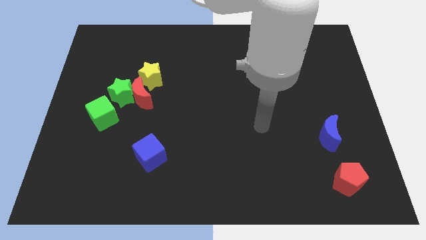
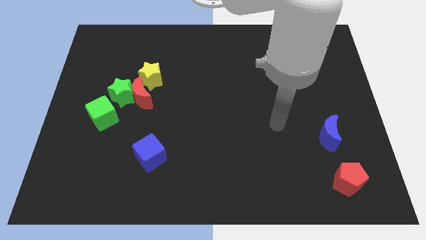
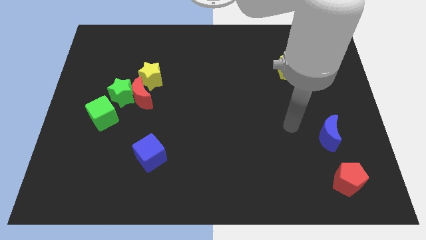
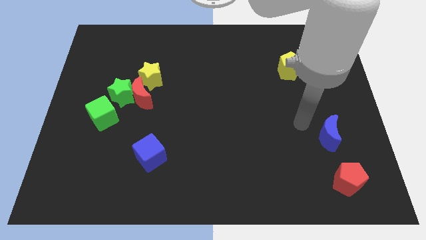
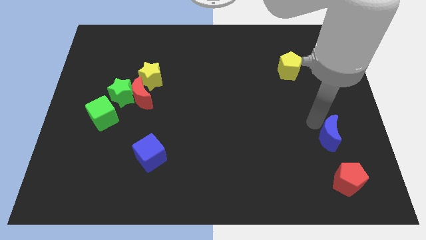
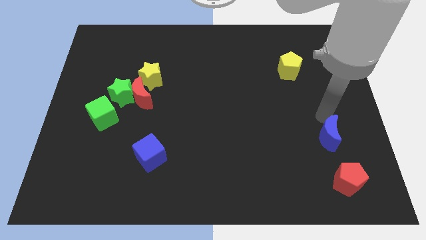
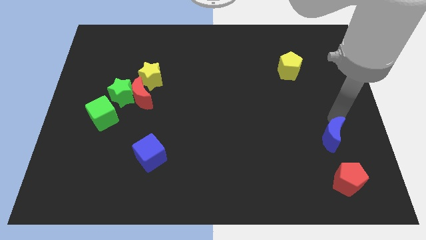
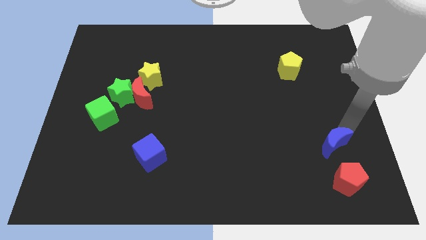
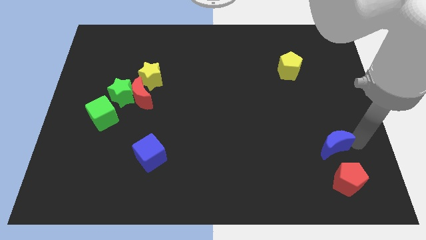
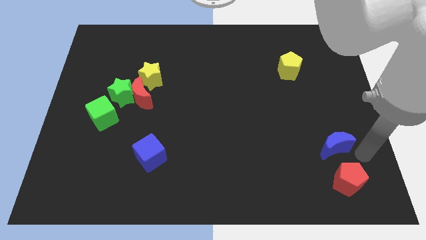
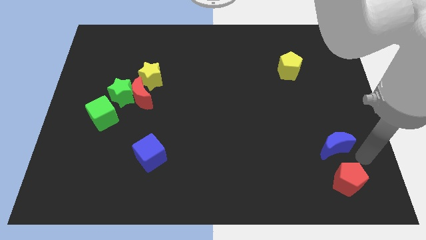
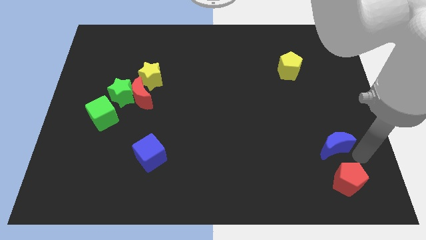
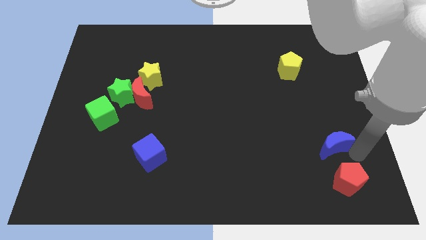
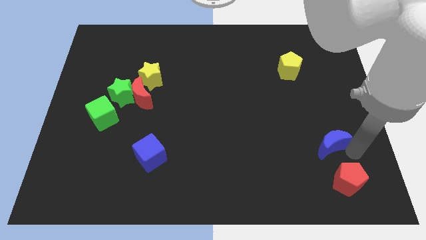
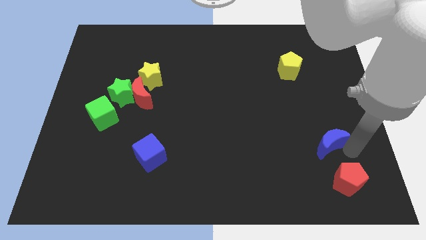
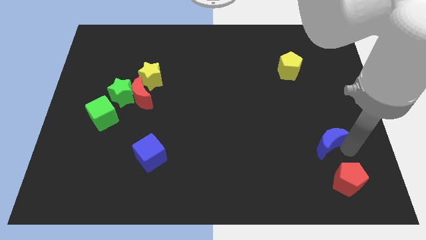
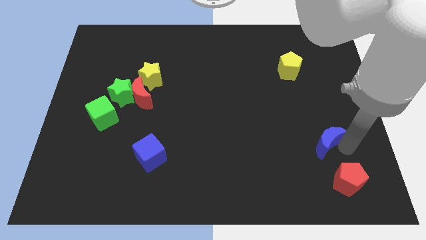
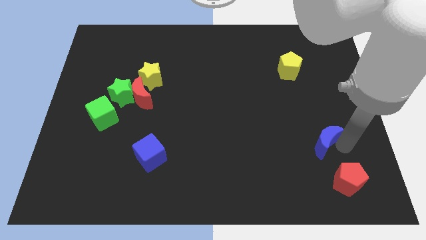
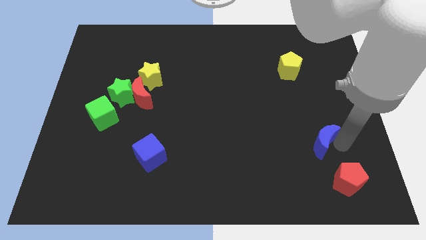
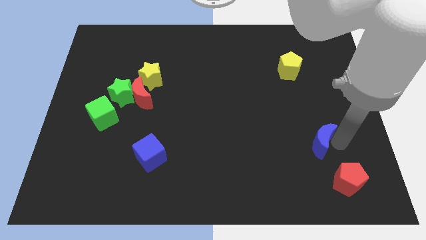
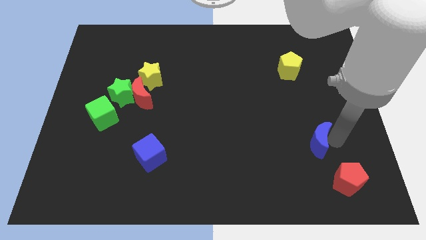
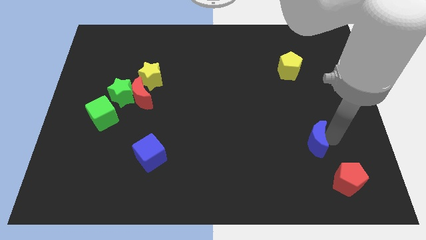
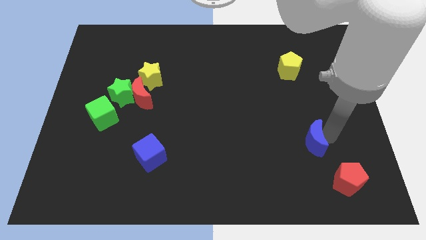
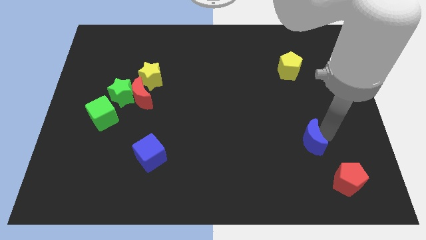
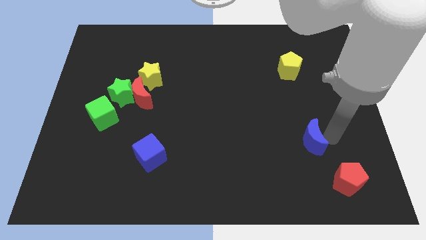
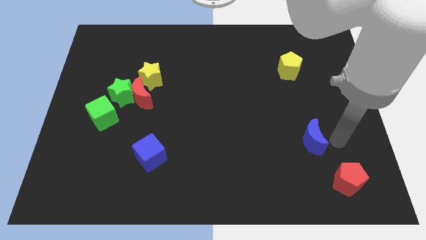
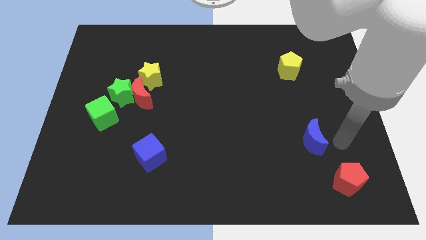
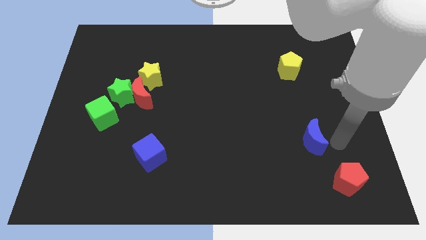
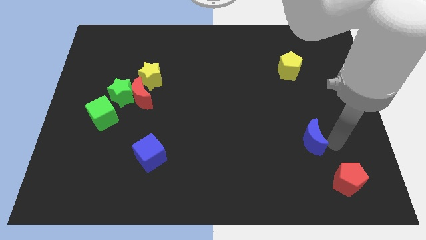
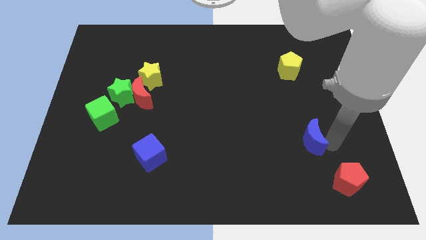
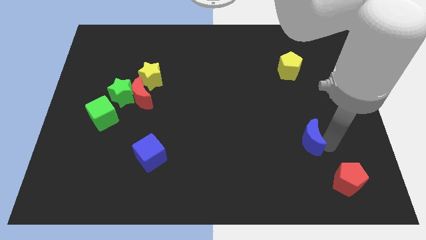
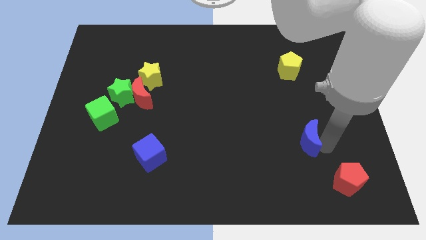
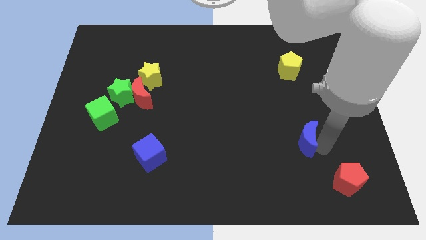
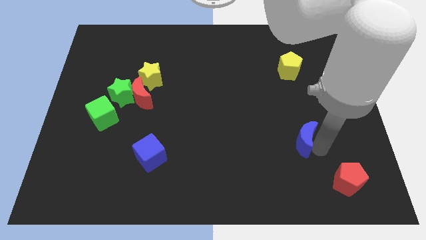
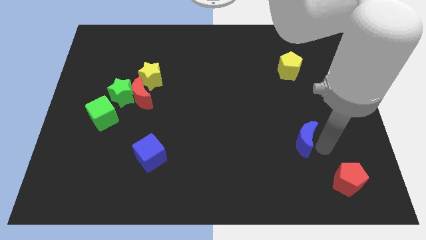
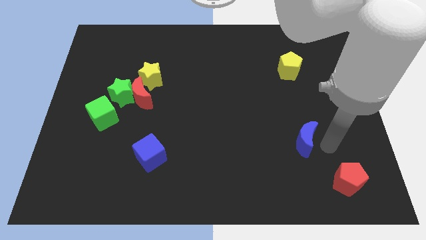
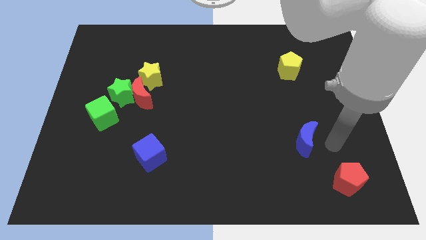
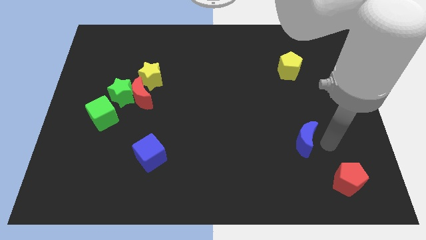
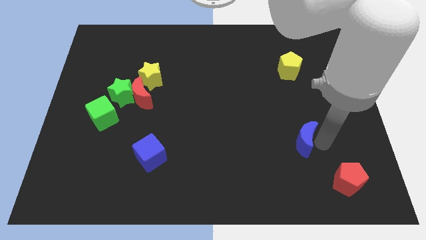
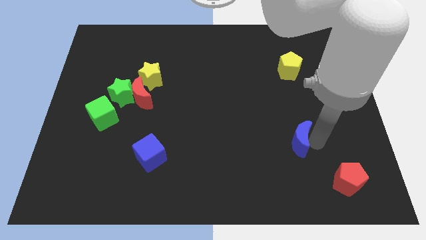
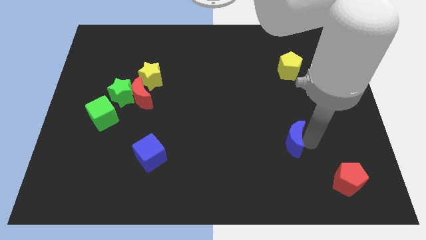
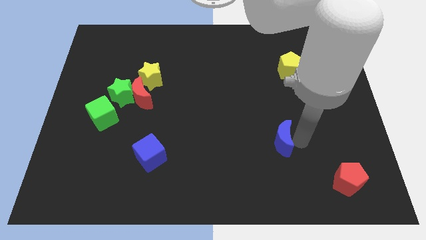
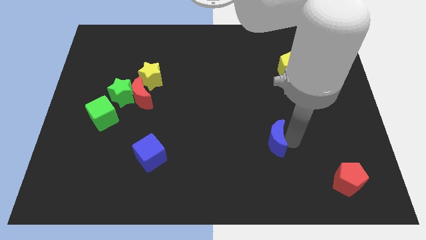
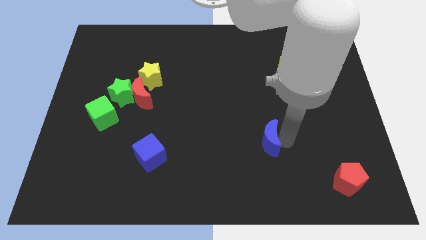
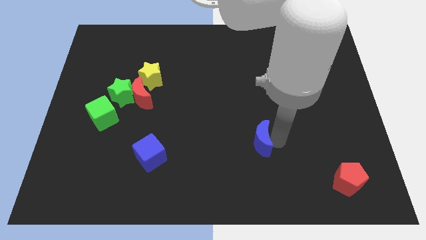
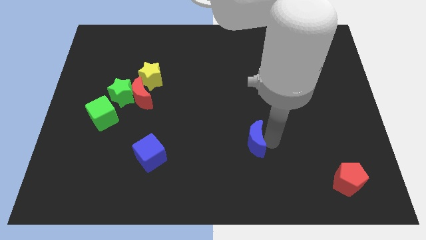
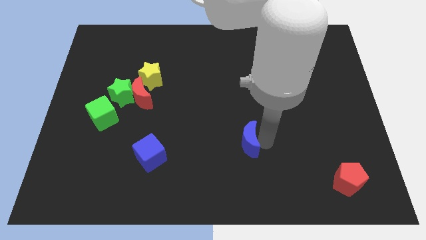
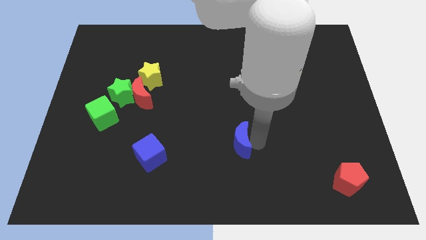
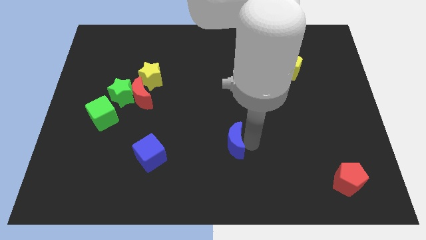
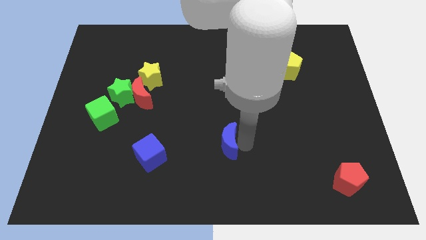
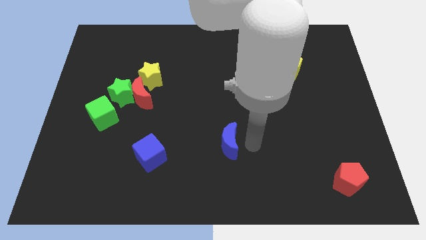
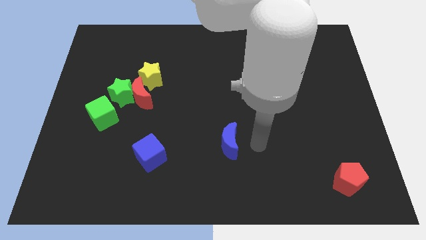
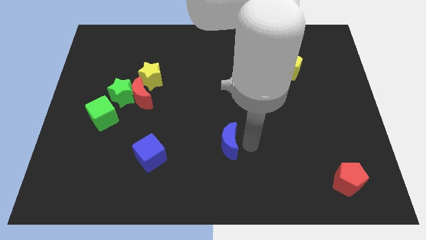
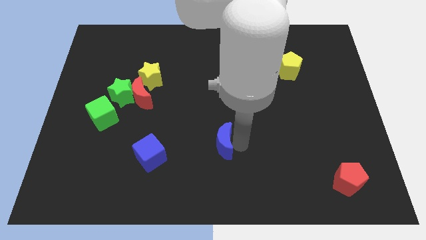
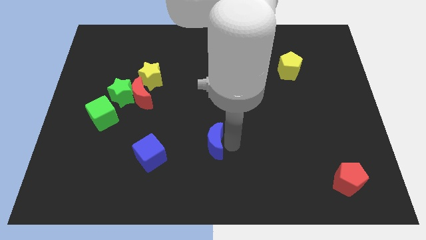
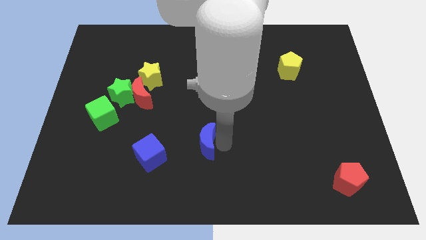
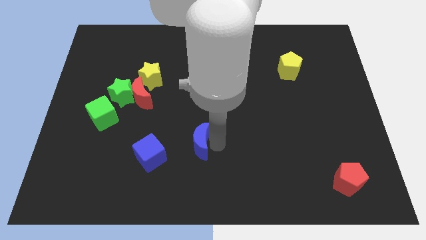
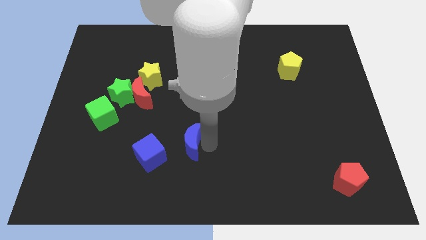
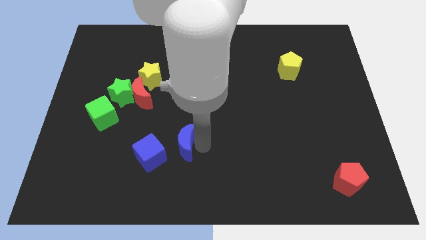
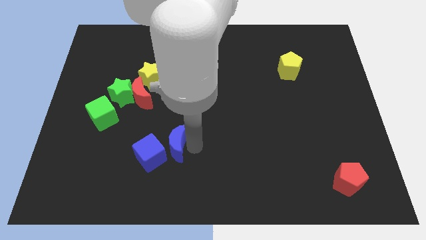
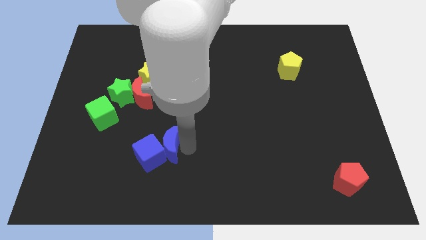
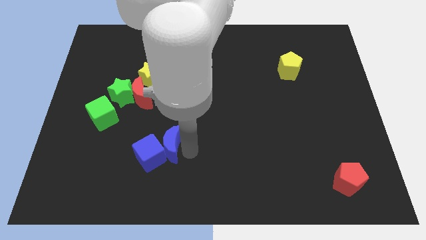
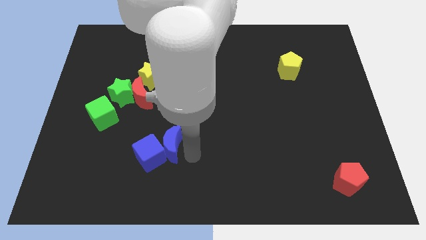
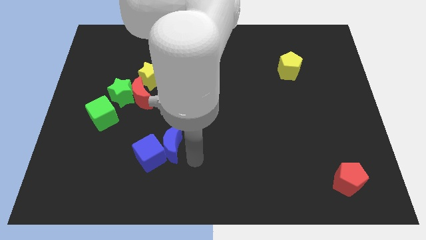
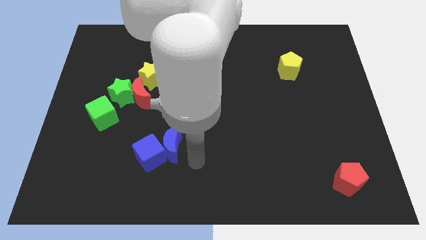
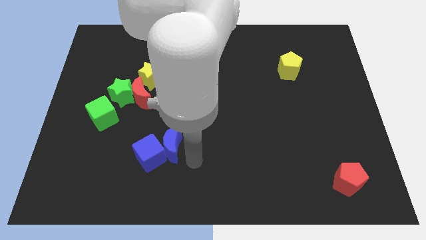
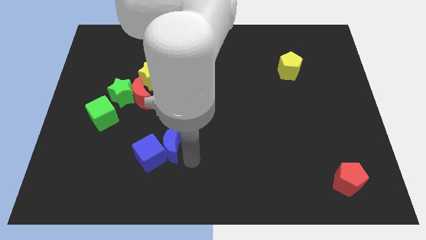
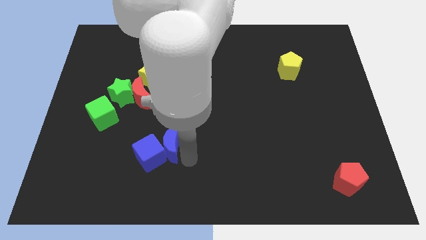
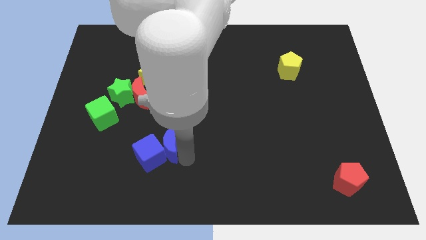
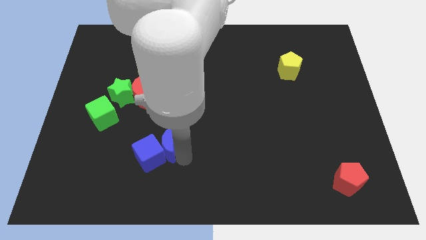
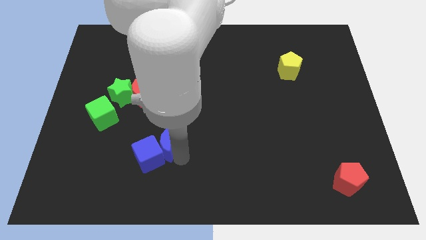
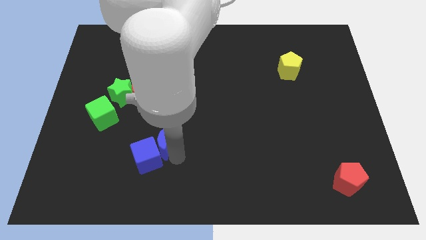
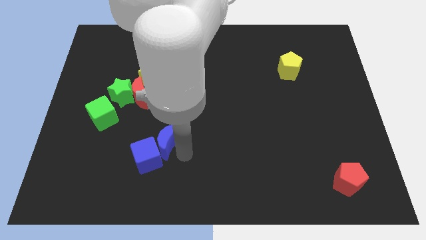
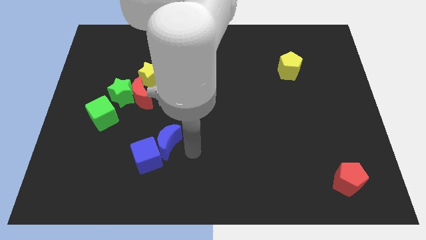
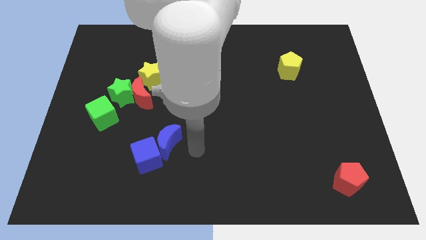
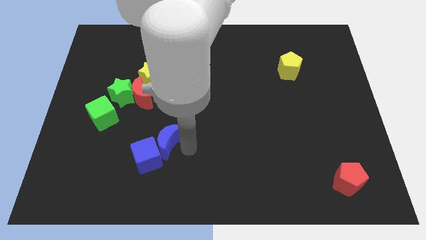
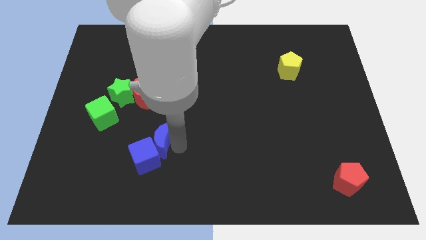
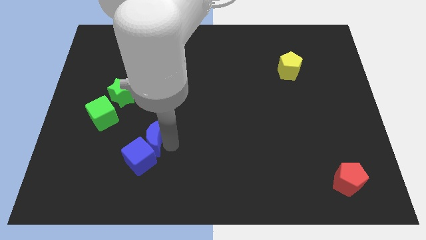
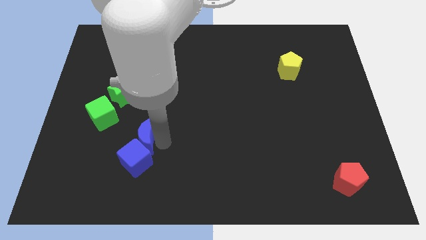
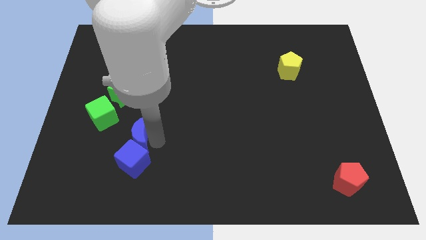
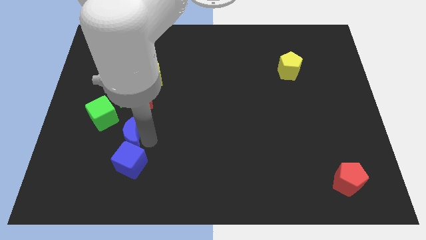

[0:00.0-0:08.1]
push the blue moon to the bottom side of the green star

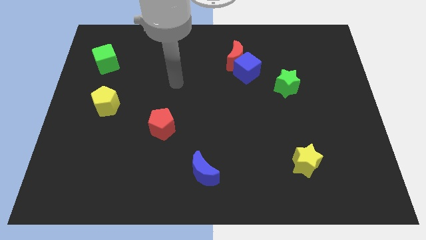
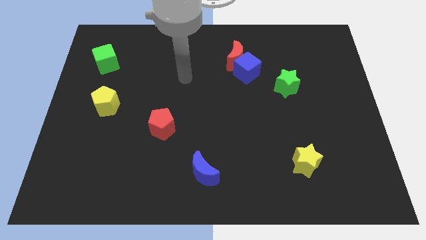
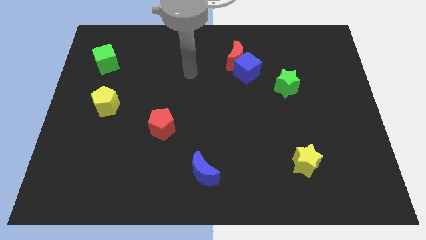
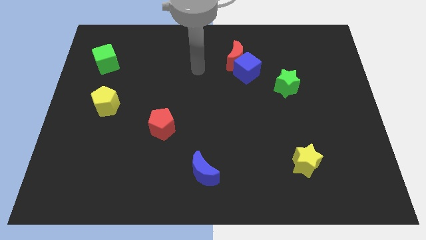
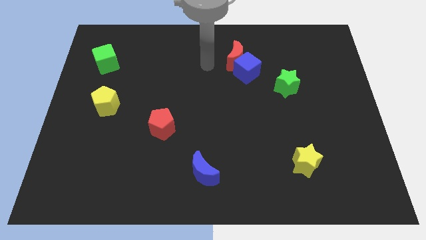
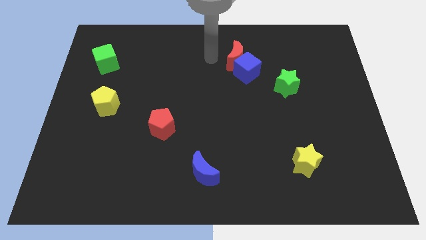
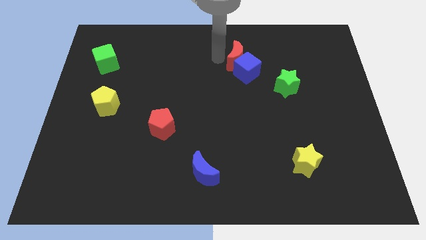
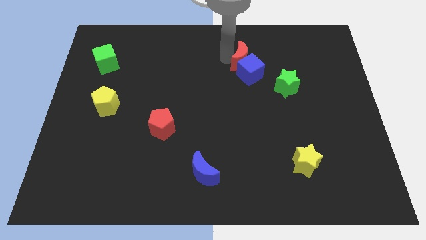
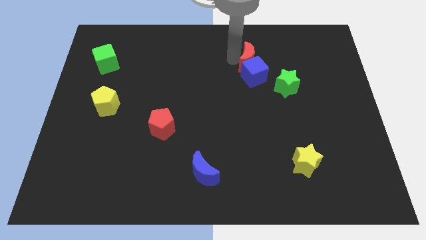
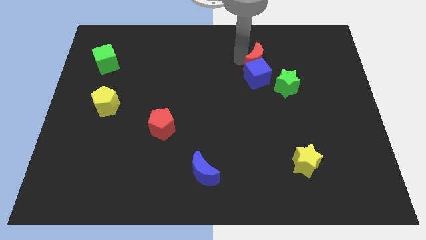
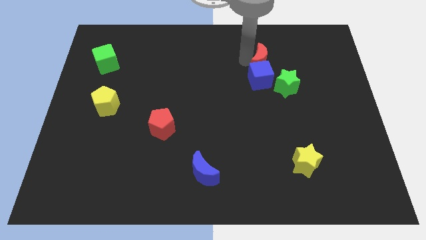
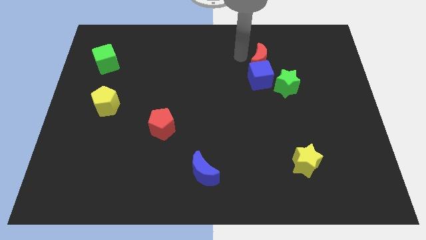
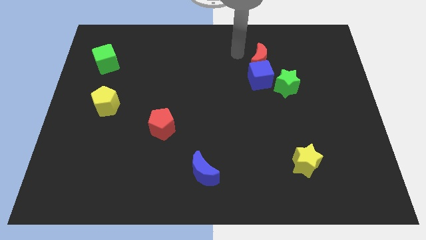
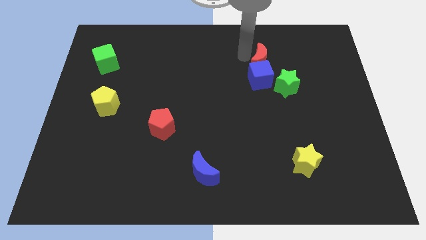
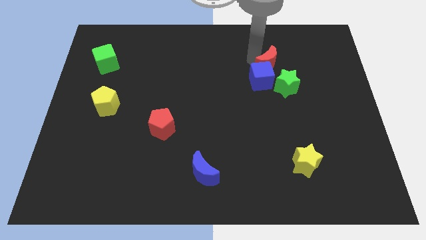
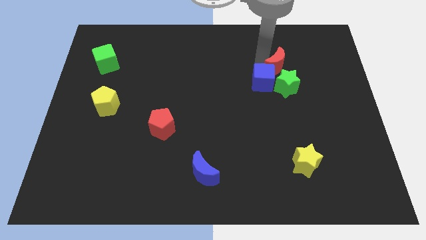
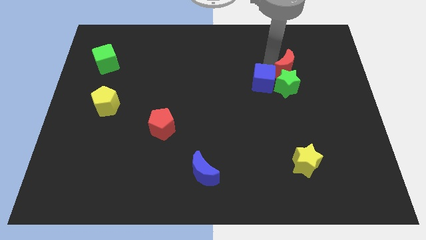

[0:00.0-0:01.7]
push the red moon to the right side of the blue cube
